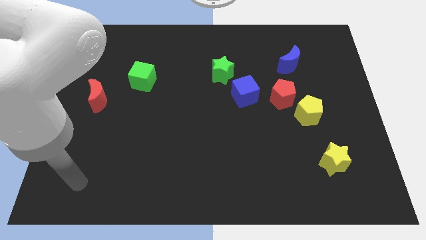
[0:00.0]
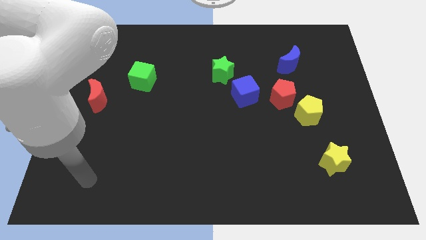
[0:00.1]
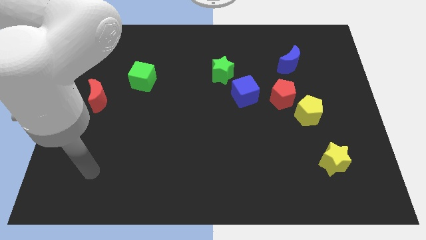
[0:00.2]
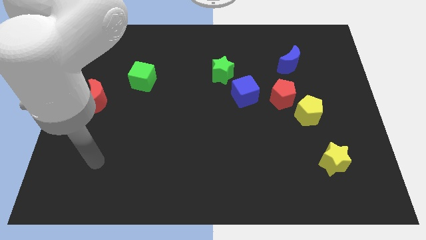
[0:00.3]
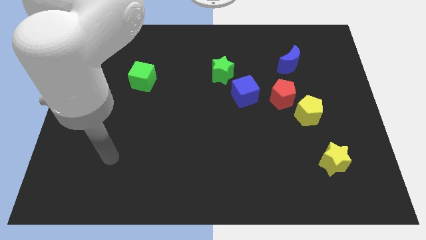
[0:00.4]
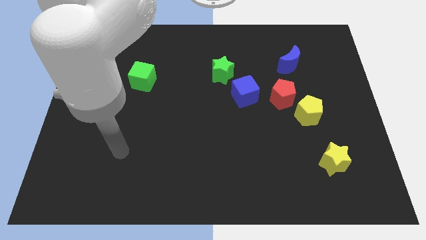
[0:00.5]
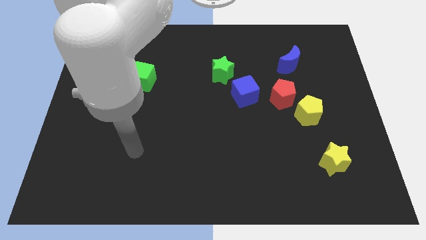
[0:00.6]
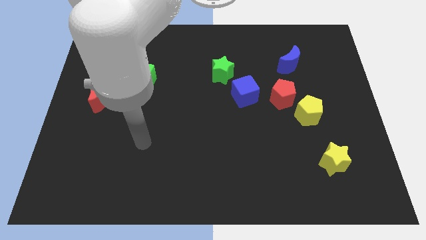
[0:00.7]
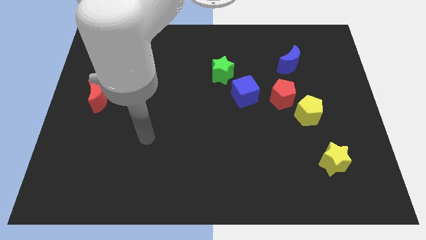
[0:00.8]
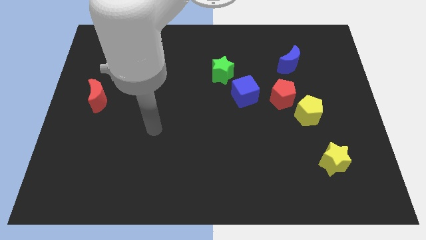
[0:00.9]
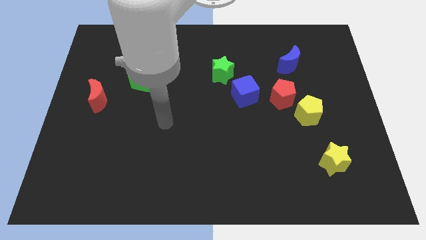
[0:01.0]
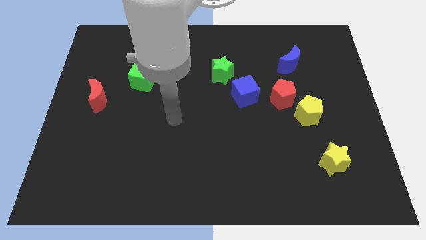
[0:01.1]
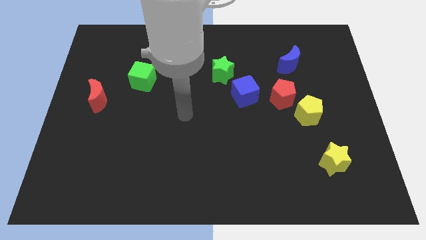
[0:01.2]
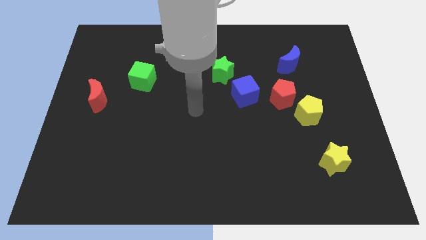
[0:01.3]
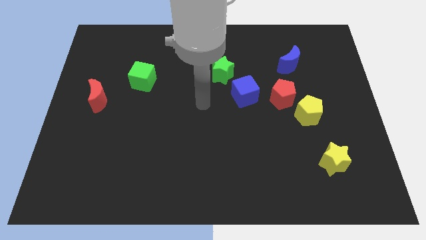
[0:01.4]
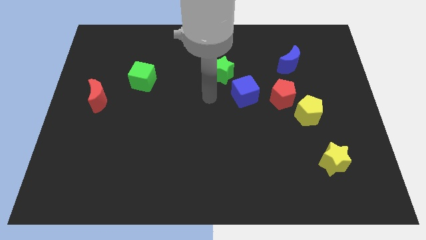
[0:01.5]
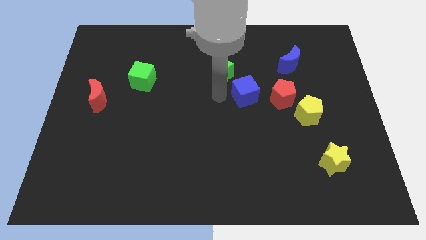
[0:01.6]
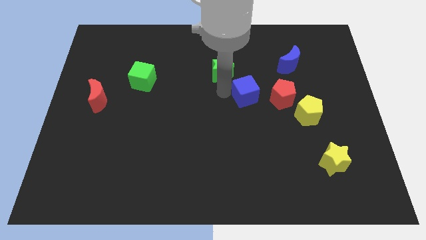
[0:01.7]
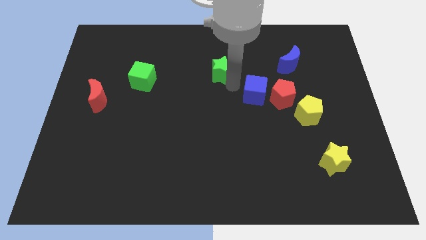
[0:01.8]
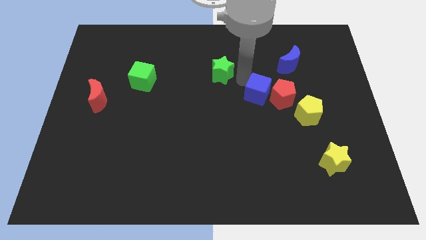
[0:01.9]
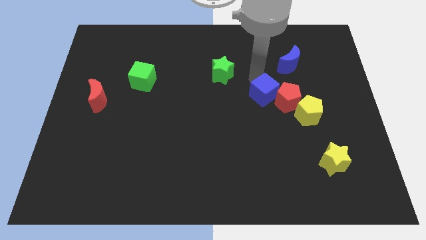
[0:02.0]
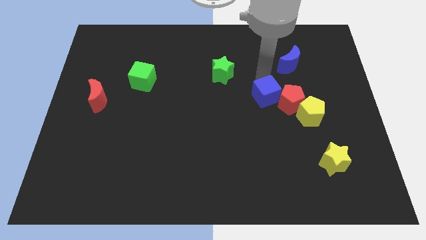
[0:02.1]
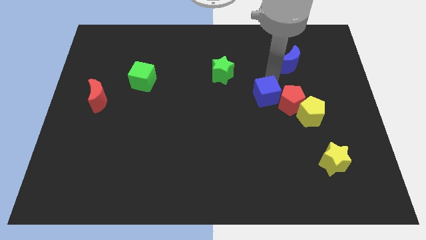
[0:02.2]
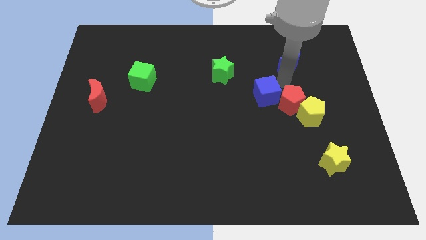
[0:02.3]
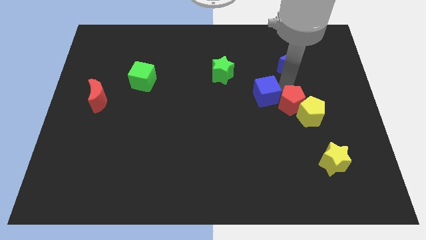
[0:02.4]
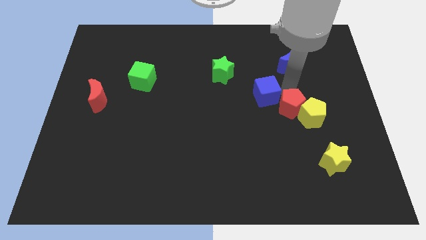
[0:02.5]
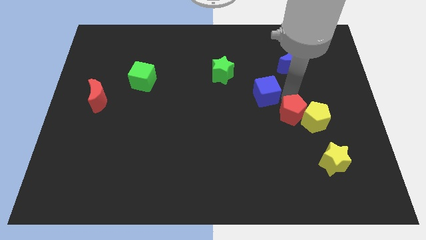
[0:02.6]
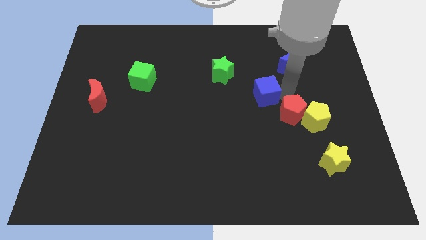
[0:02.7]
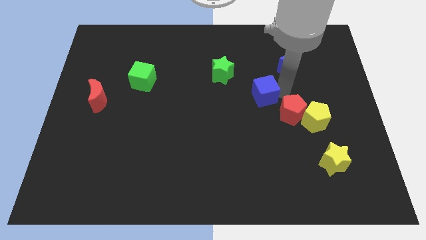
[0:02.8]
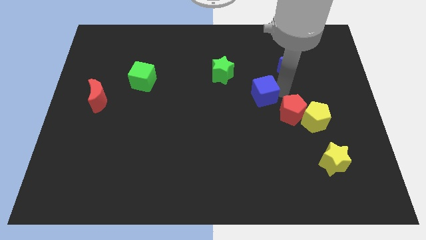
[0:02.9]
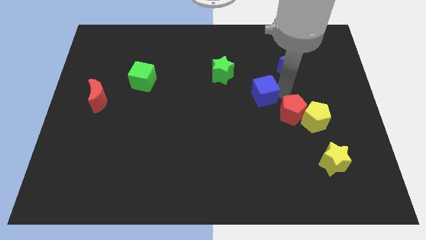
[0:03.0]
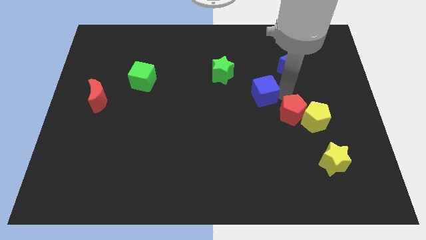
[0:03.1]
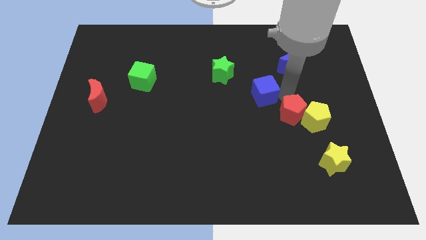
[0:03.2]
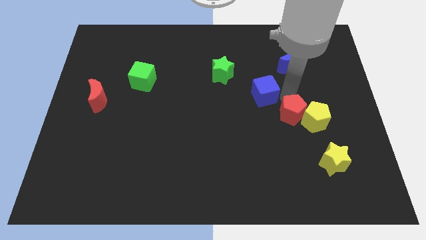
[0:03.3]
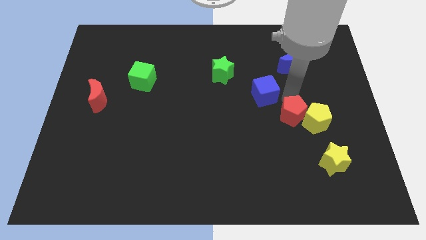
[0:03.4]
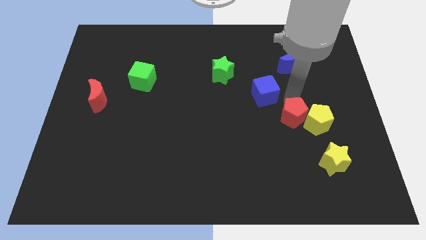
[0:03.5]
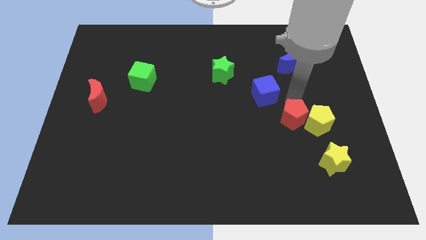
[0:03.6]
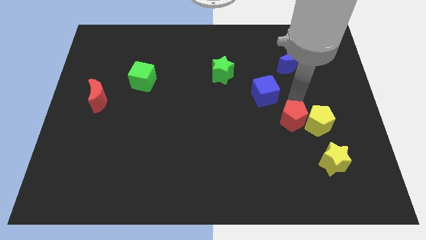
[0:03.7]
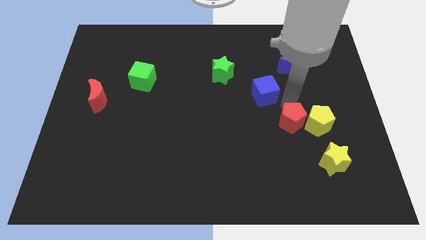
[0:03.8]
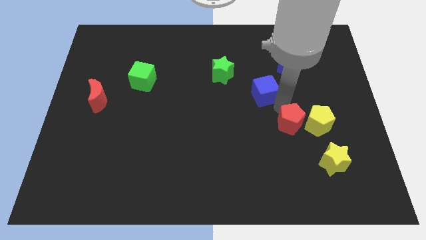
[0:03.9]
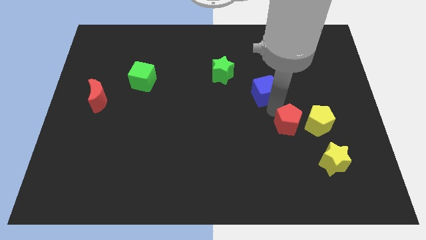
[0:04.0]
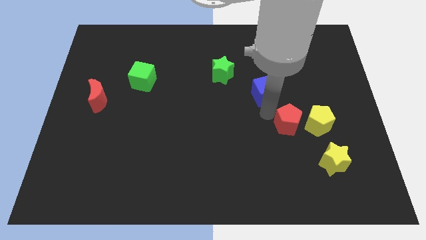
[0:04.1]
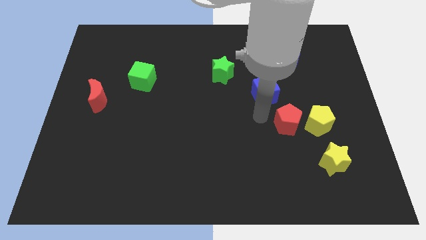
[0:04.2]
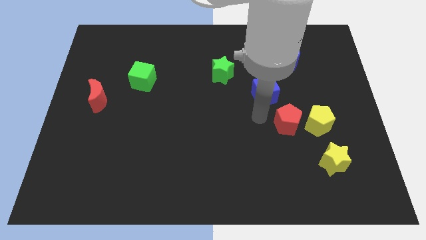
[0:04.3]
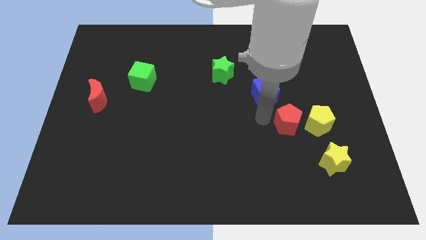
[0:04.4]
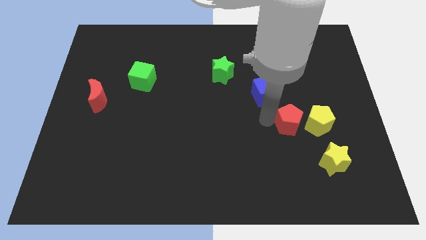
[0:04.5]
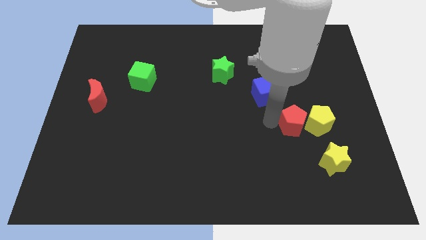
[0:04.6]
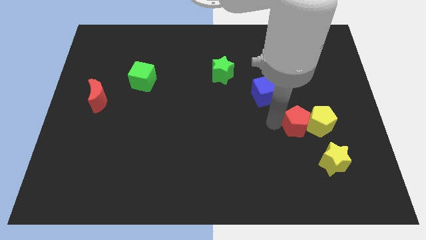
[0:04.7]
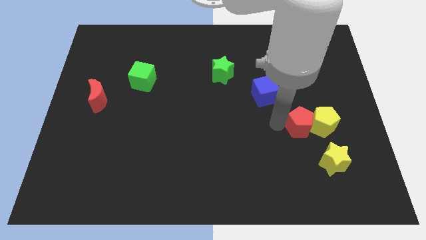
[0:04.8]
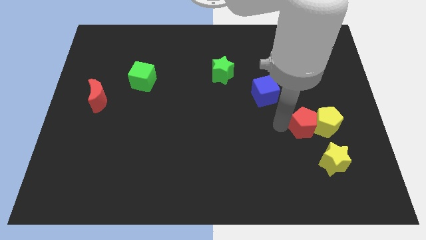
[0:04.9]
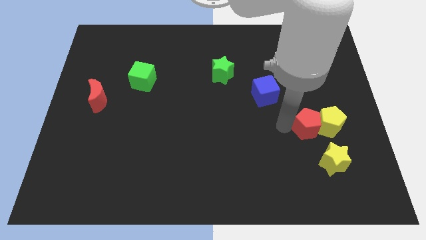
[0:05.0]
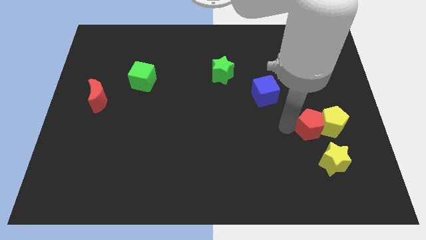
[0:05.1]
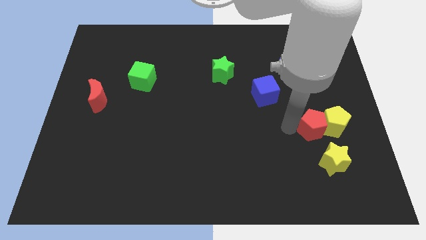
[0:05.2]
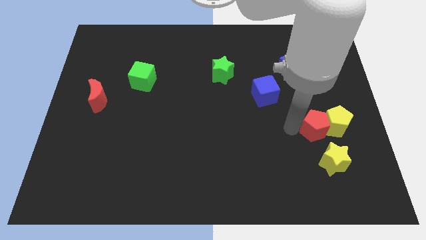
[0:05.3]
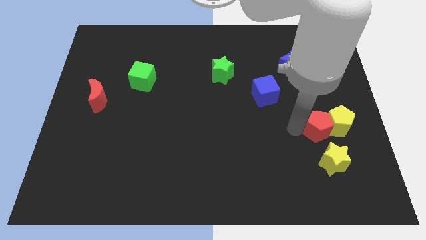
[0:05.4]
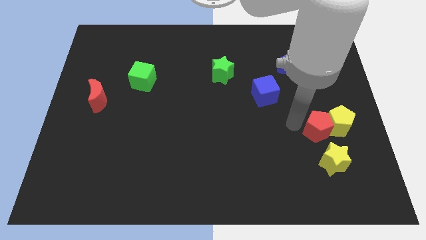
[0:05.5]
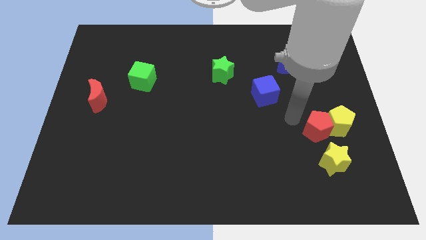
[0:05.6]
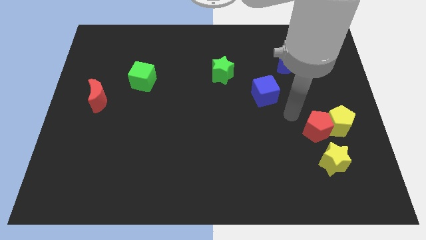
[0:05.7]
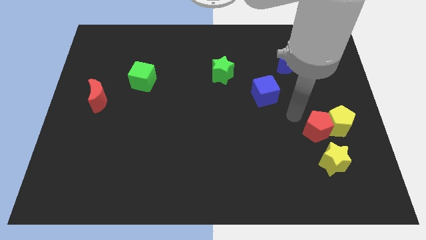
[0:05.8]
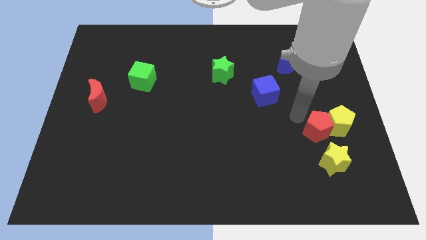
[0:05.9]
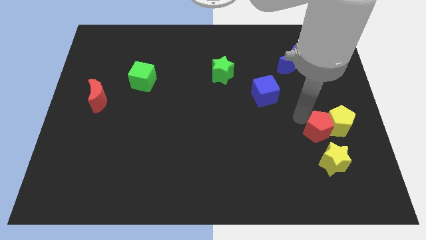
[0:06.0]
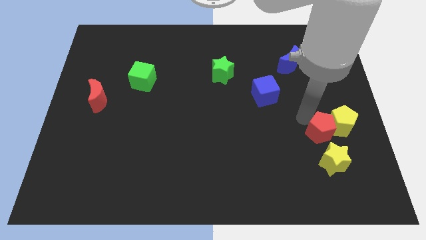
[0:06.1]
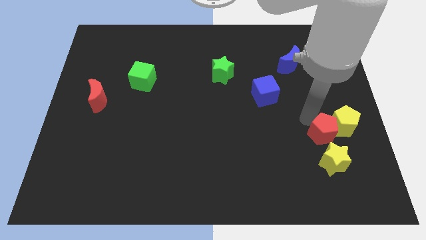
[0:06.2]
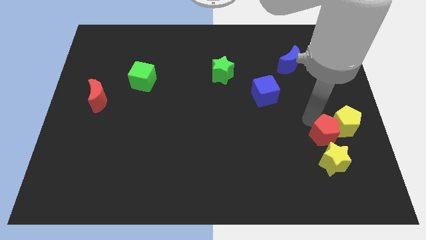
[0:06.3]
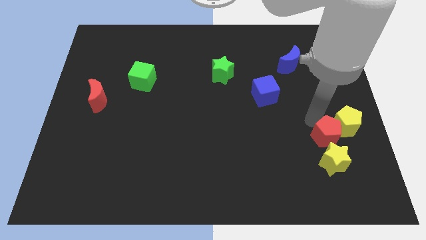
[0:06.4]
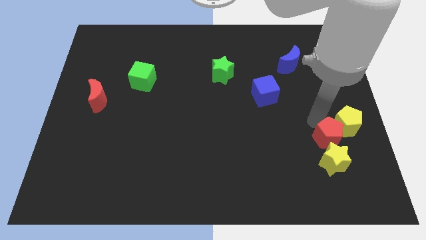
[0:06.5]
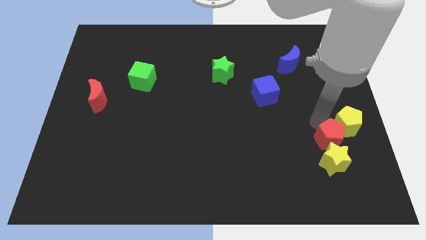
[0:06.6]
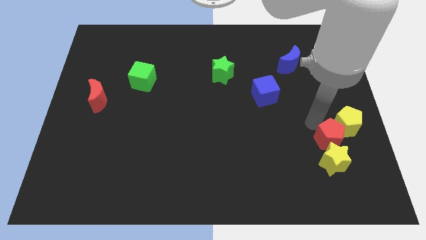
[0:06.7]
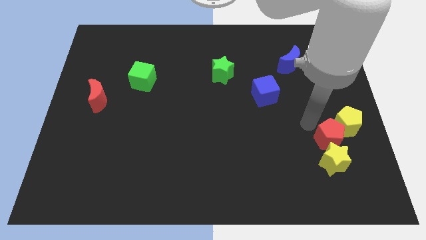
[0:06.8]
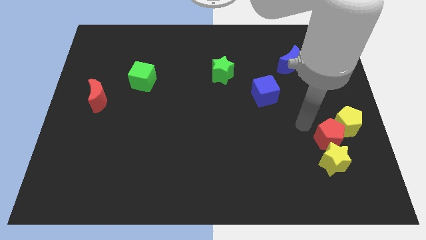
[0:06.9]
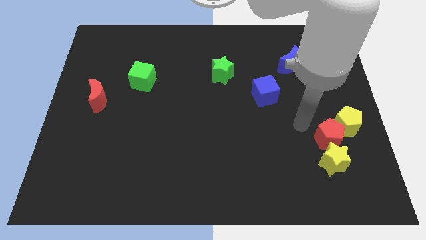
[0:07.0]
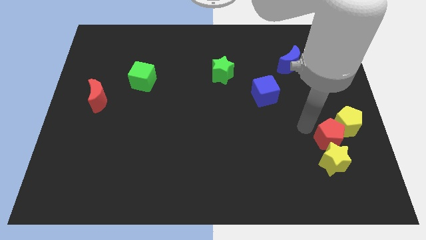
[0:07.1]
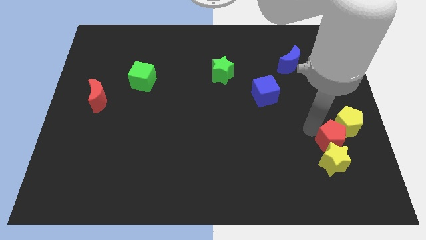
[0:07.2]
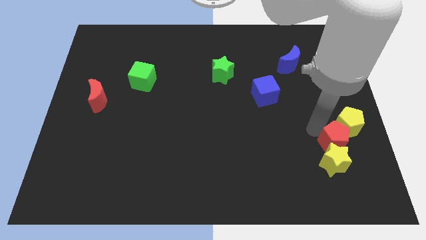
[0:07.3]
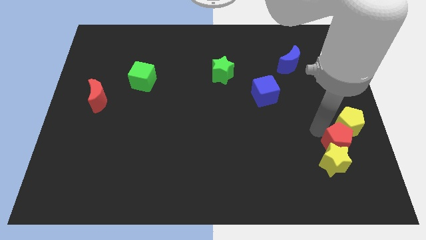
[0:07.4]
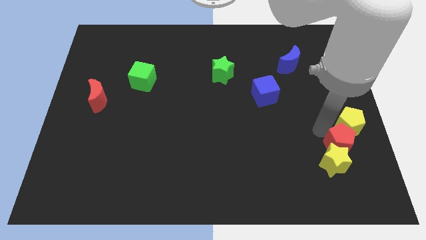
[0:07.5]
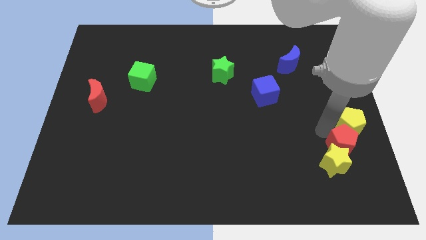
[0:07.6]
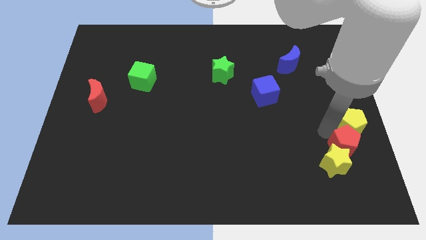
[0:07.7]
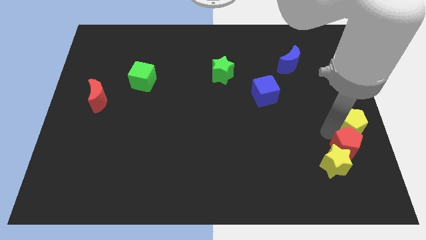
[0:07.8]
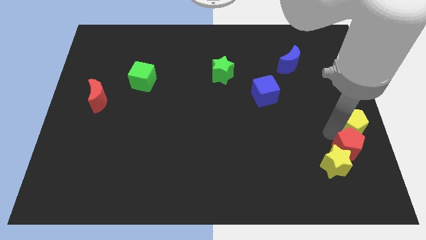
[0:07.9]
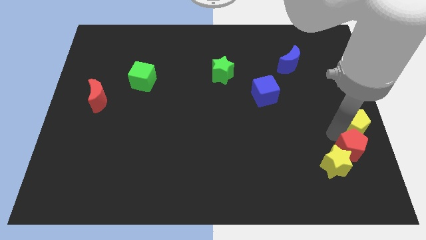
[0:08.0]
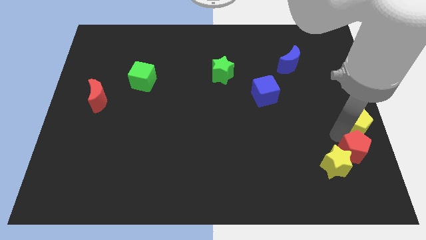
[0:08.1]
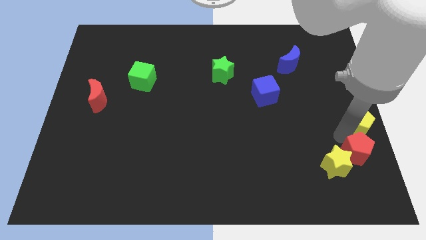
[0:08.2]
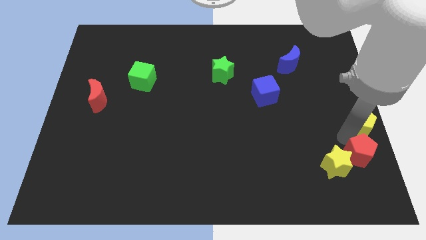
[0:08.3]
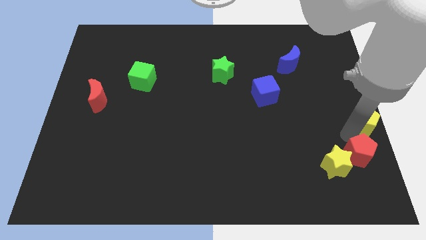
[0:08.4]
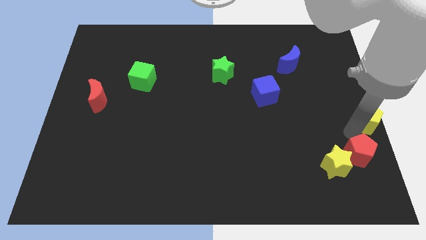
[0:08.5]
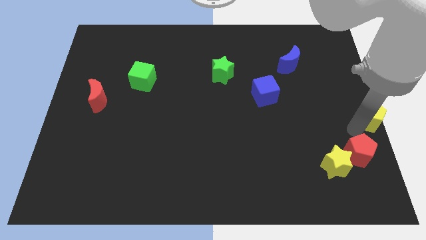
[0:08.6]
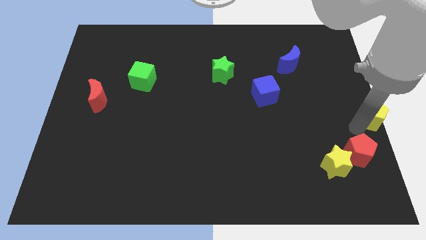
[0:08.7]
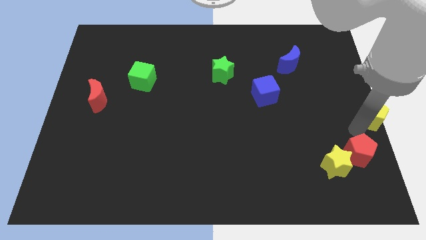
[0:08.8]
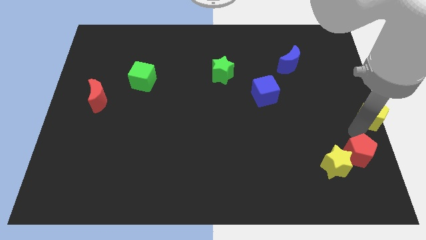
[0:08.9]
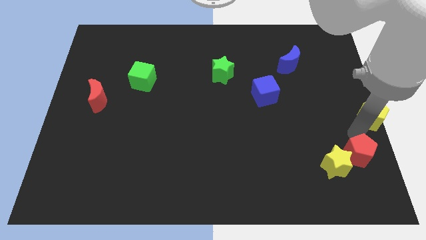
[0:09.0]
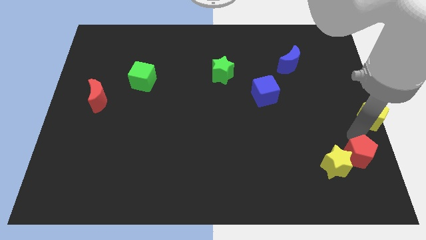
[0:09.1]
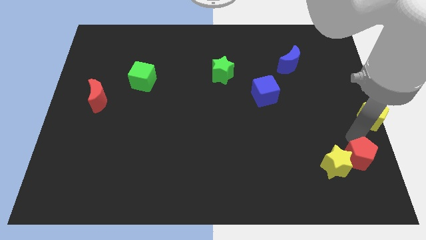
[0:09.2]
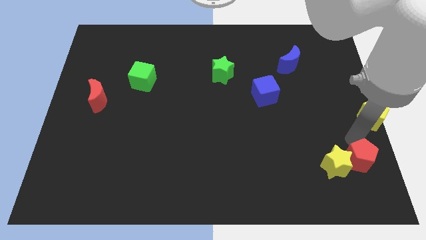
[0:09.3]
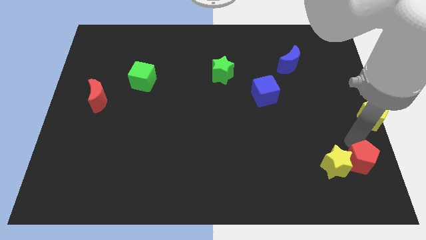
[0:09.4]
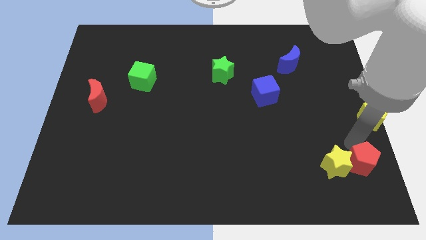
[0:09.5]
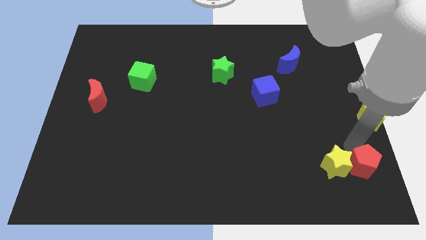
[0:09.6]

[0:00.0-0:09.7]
slide the red pentagon to the bottom right
